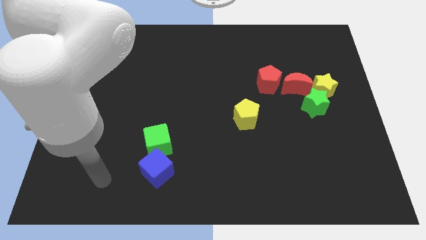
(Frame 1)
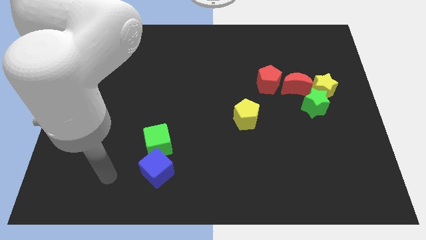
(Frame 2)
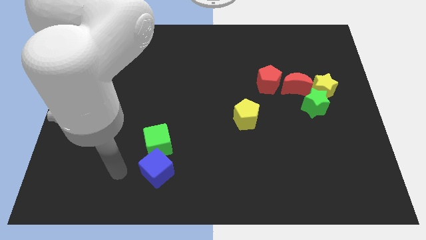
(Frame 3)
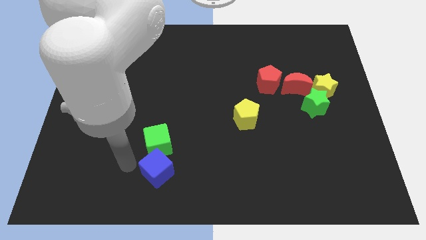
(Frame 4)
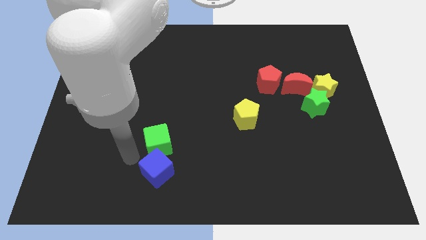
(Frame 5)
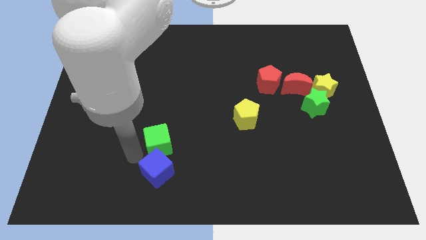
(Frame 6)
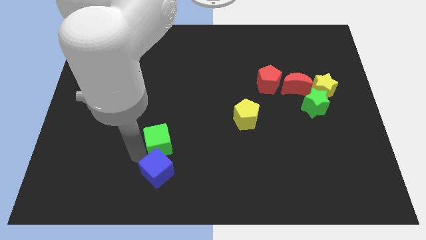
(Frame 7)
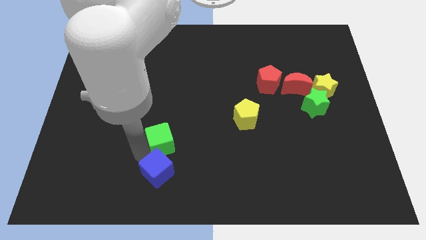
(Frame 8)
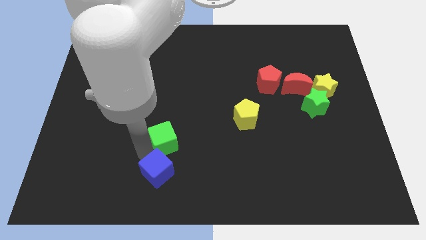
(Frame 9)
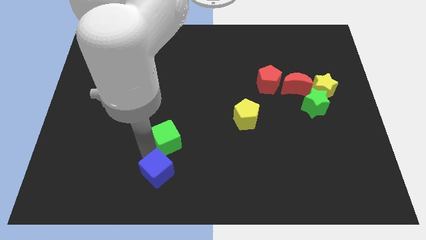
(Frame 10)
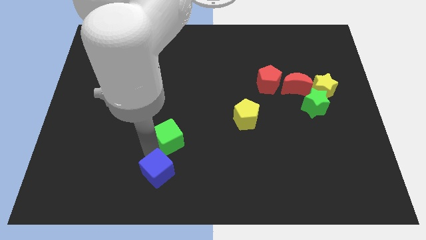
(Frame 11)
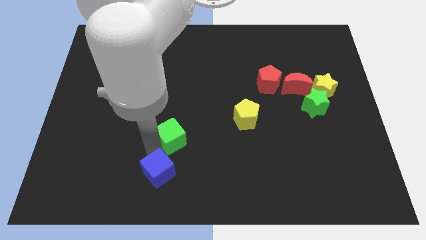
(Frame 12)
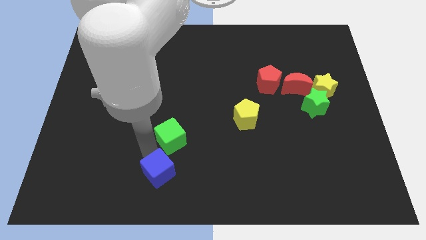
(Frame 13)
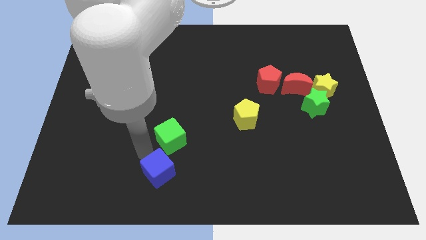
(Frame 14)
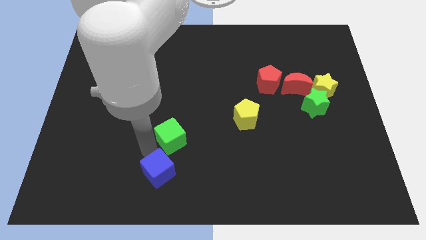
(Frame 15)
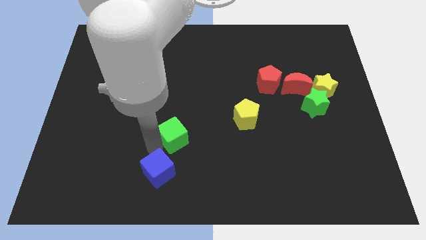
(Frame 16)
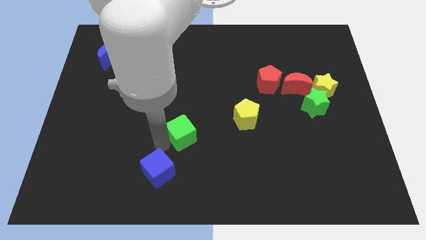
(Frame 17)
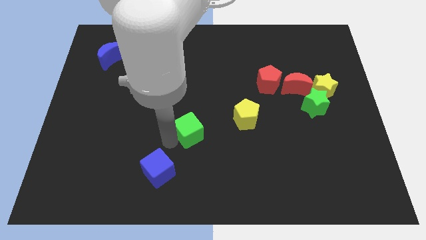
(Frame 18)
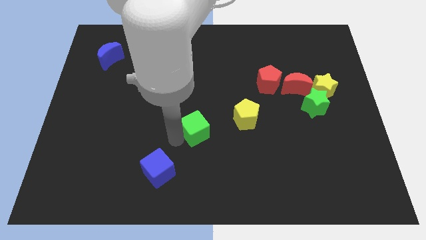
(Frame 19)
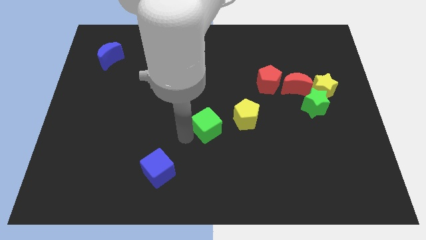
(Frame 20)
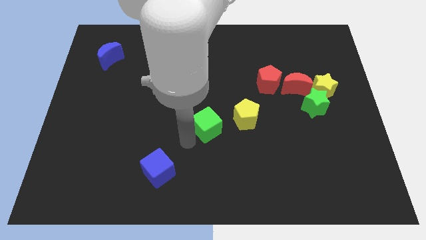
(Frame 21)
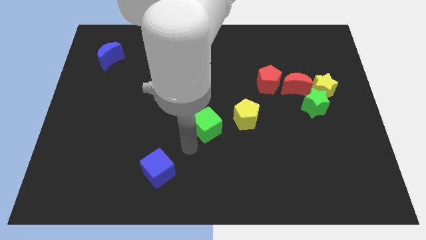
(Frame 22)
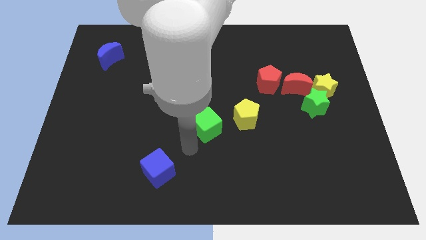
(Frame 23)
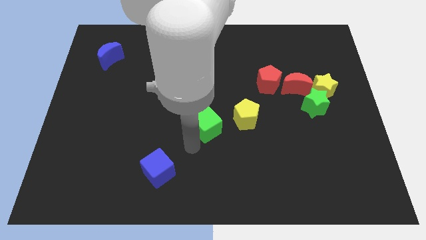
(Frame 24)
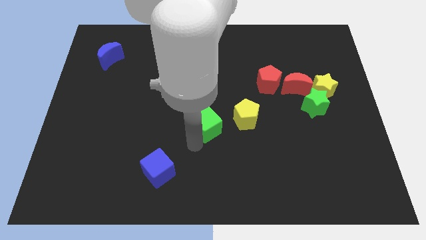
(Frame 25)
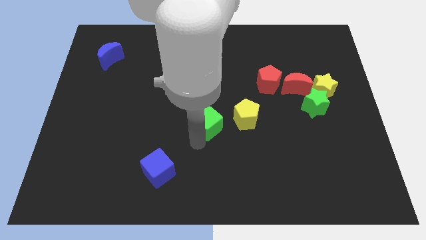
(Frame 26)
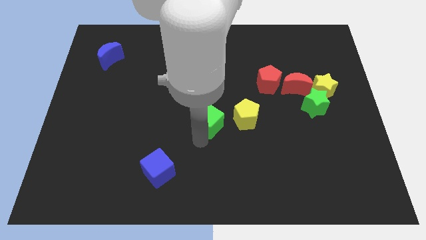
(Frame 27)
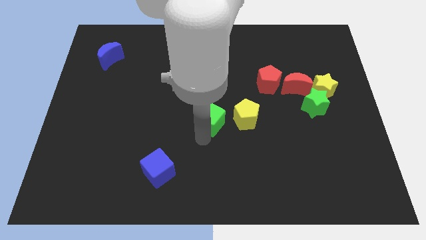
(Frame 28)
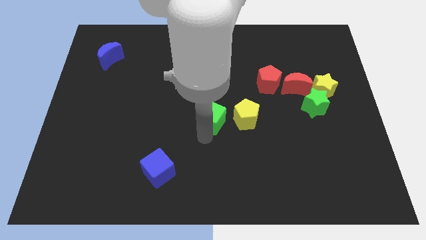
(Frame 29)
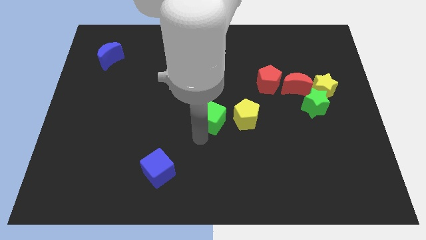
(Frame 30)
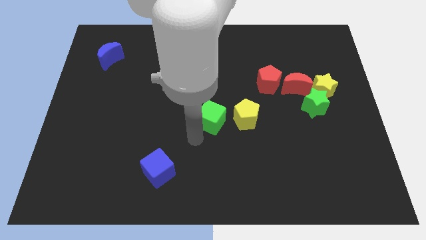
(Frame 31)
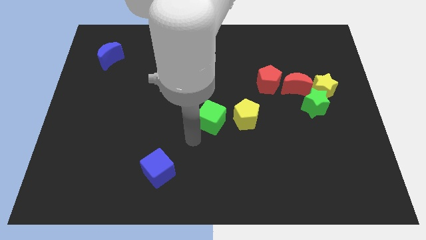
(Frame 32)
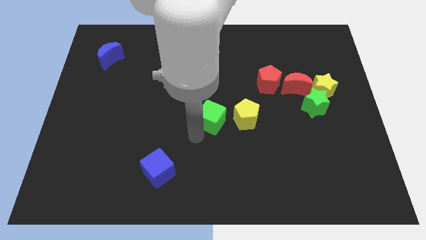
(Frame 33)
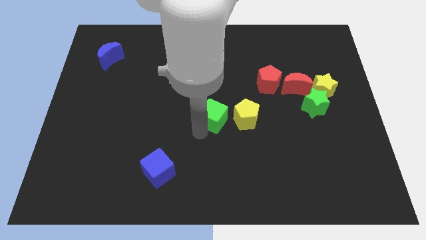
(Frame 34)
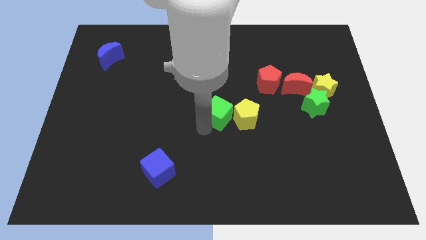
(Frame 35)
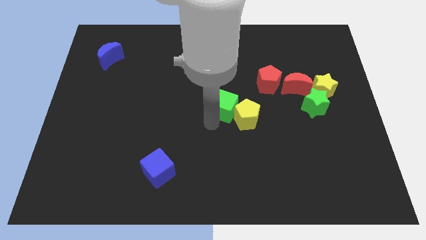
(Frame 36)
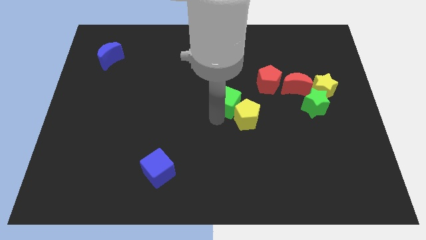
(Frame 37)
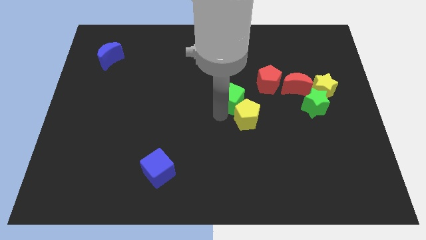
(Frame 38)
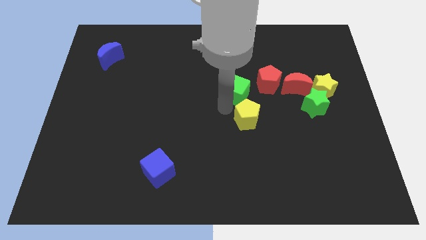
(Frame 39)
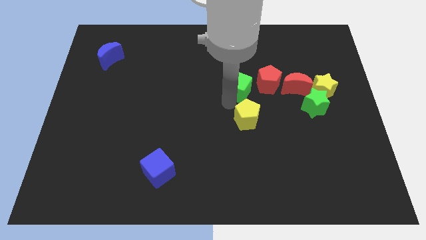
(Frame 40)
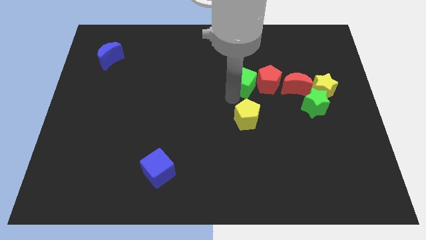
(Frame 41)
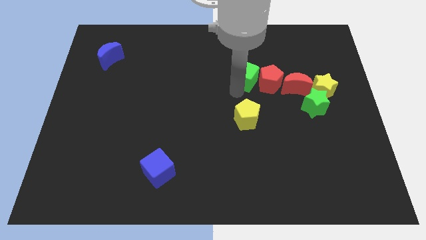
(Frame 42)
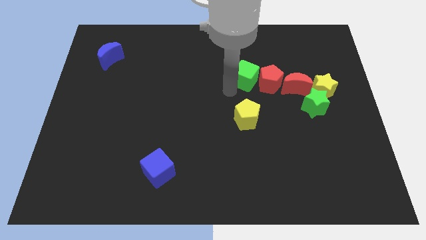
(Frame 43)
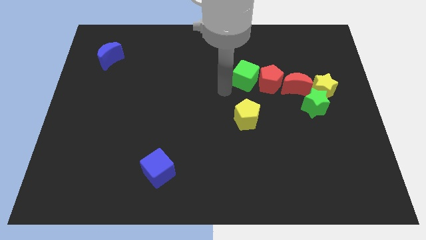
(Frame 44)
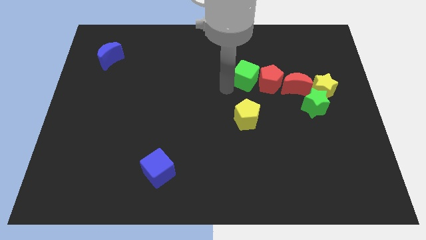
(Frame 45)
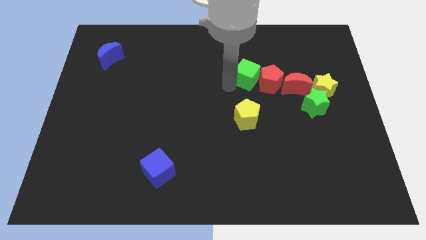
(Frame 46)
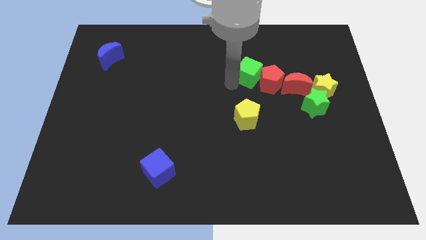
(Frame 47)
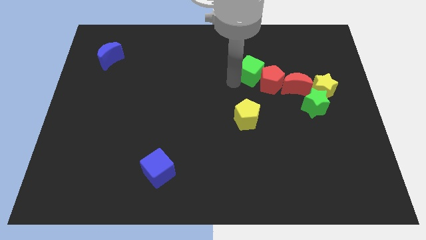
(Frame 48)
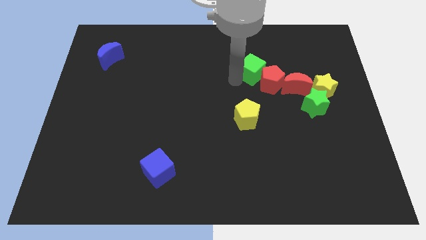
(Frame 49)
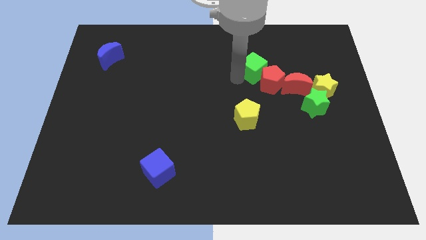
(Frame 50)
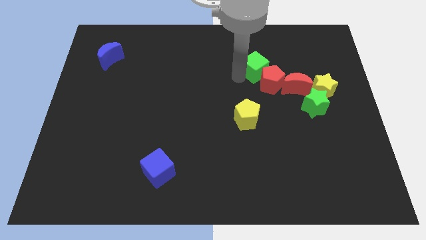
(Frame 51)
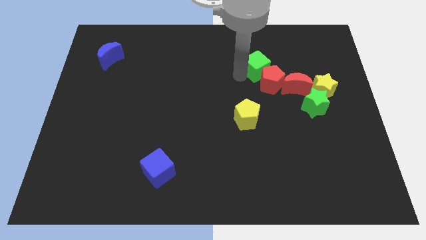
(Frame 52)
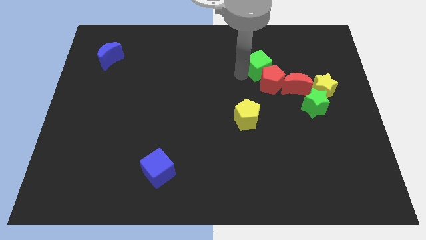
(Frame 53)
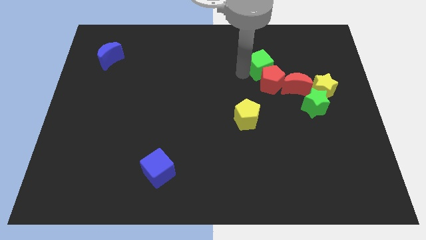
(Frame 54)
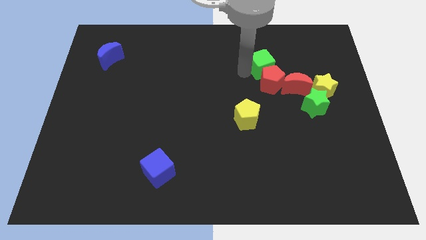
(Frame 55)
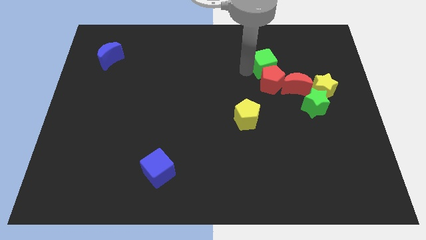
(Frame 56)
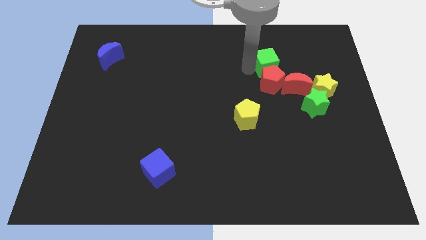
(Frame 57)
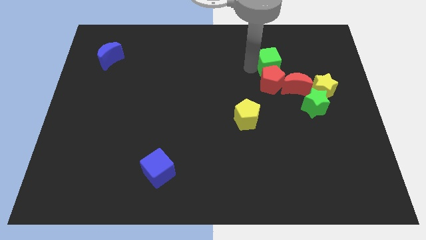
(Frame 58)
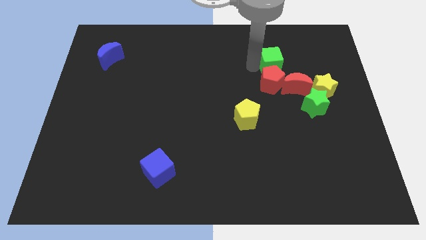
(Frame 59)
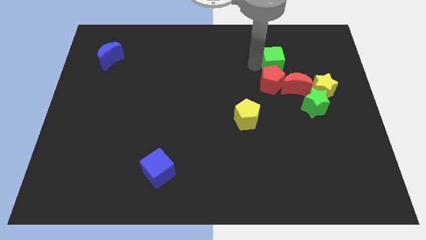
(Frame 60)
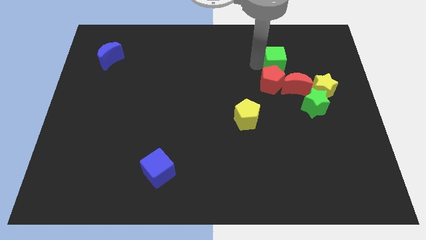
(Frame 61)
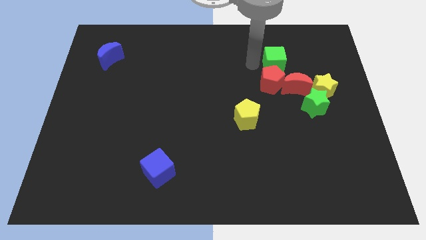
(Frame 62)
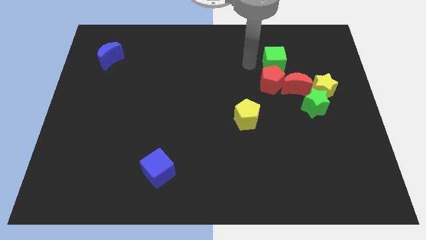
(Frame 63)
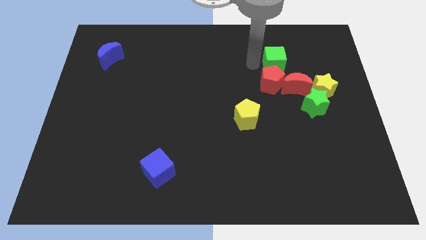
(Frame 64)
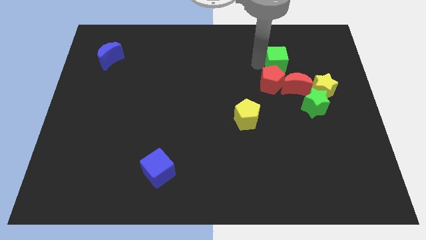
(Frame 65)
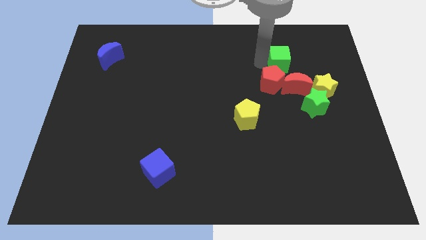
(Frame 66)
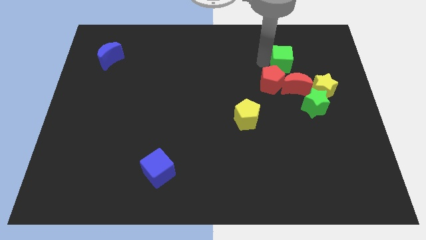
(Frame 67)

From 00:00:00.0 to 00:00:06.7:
push the green cube to the top left of the yellow star
